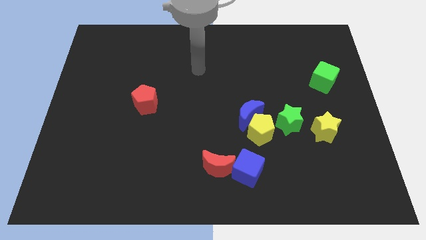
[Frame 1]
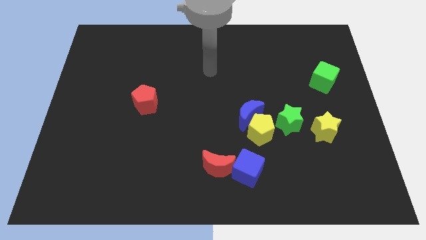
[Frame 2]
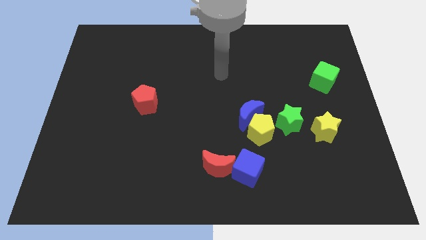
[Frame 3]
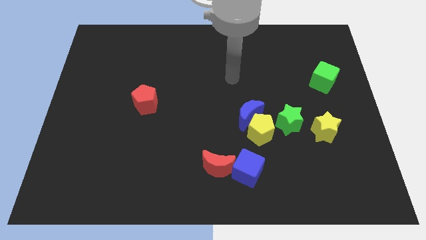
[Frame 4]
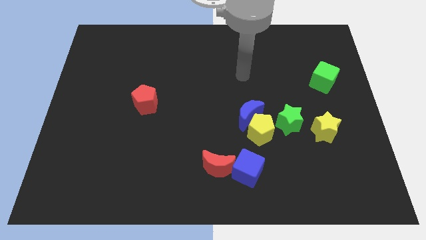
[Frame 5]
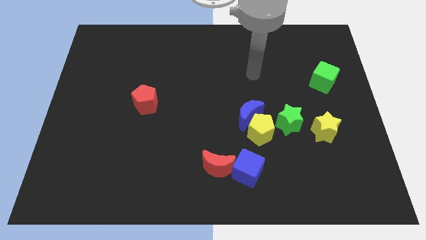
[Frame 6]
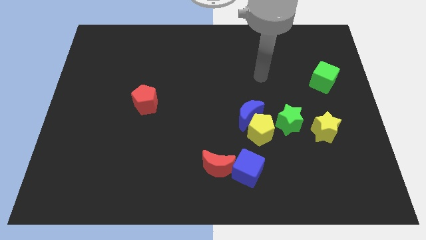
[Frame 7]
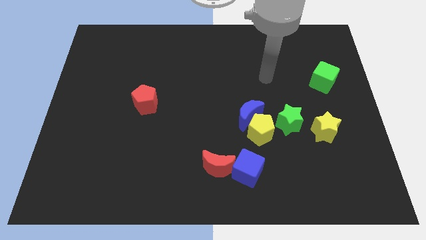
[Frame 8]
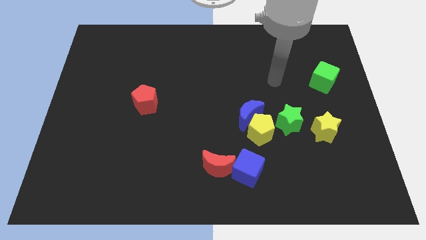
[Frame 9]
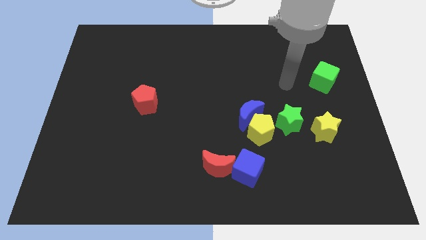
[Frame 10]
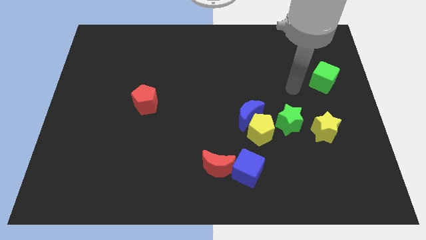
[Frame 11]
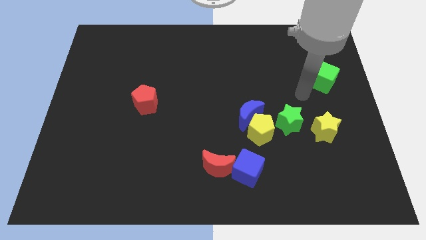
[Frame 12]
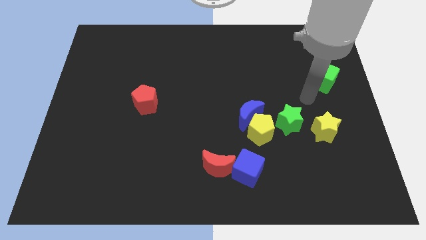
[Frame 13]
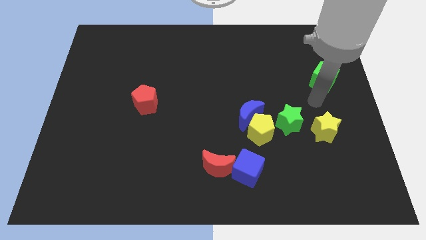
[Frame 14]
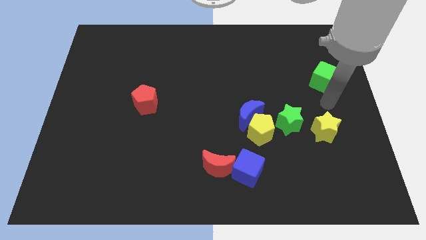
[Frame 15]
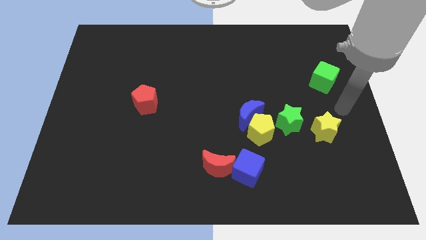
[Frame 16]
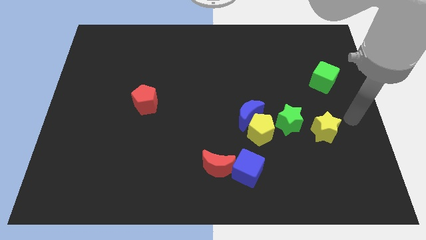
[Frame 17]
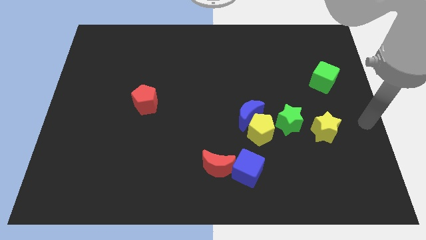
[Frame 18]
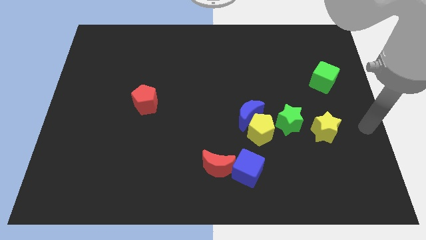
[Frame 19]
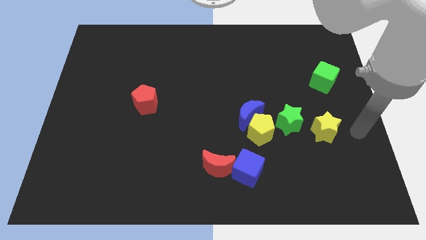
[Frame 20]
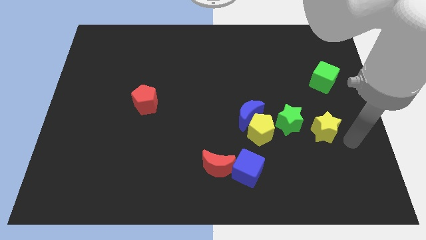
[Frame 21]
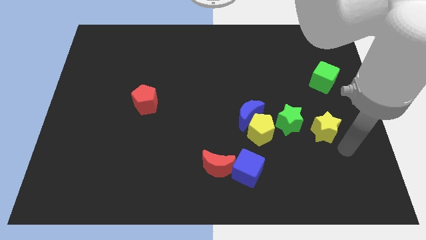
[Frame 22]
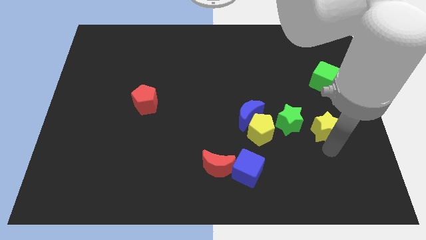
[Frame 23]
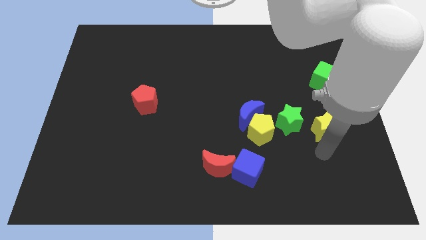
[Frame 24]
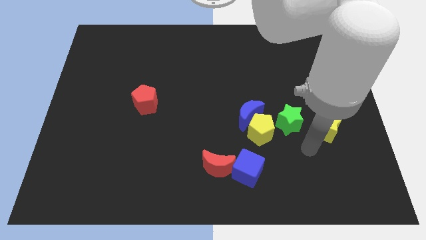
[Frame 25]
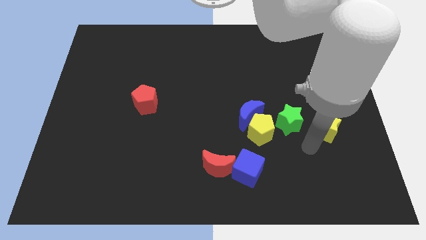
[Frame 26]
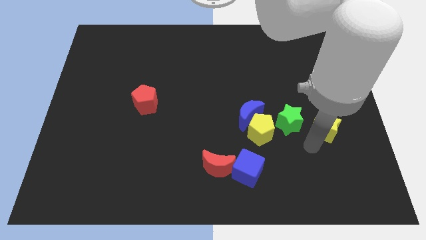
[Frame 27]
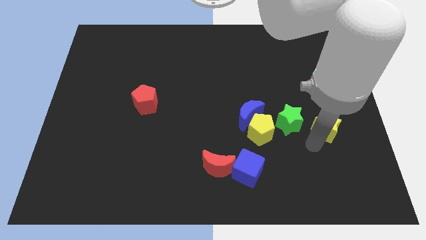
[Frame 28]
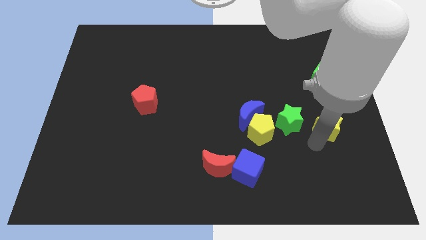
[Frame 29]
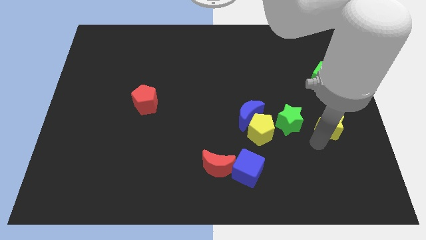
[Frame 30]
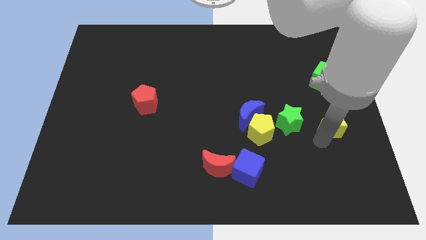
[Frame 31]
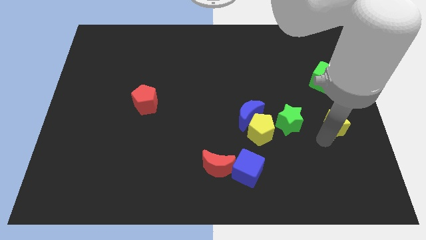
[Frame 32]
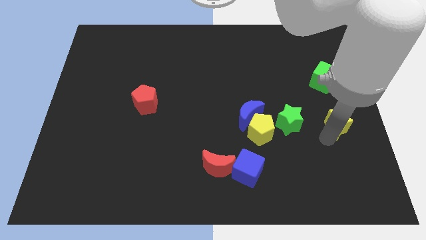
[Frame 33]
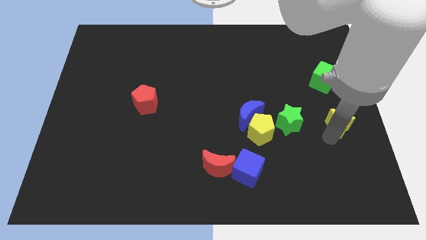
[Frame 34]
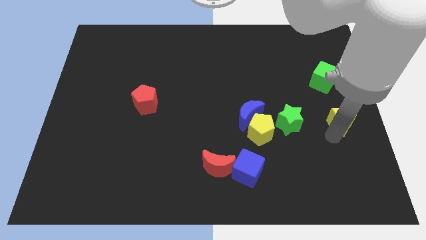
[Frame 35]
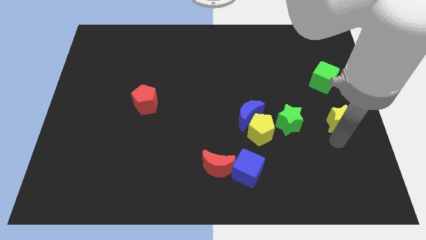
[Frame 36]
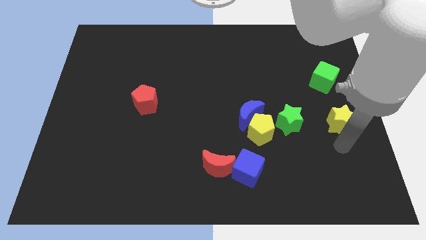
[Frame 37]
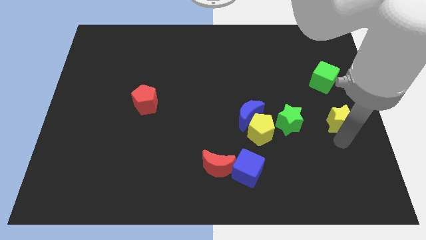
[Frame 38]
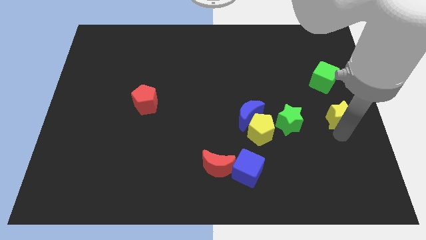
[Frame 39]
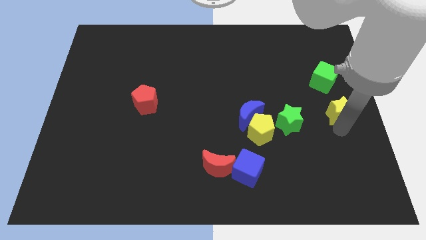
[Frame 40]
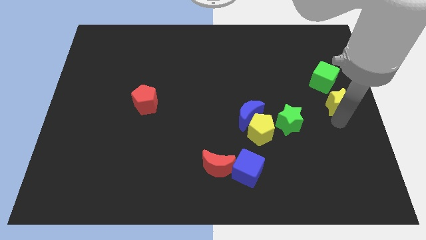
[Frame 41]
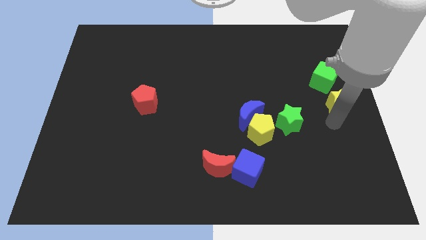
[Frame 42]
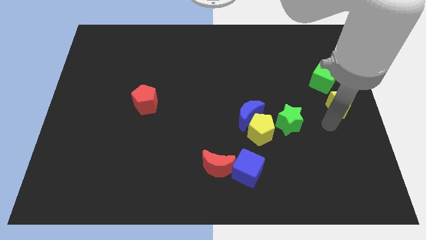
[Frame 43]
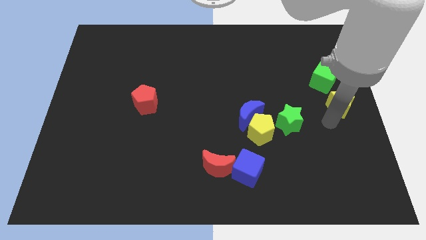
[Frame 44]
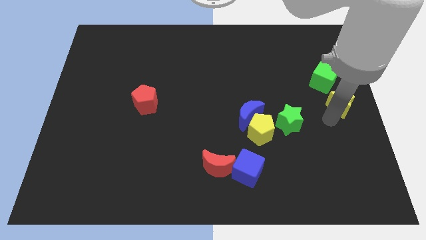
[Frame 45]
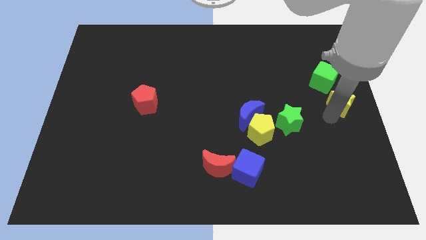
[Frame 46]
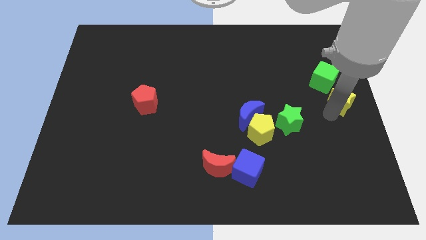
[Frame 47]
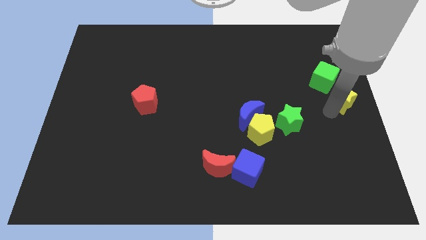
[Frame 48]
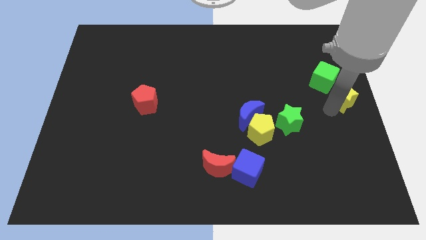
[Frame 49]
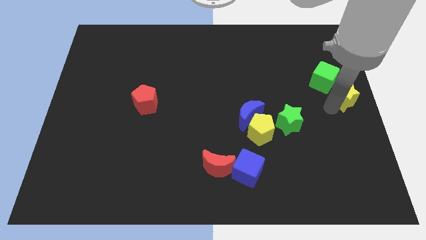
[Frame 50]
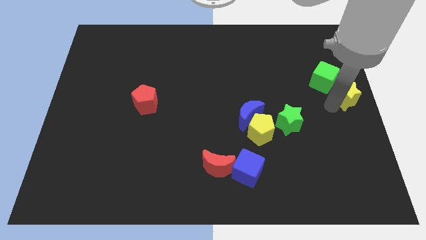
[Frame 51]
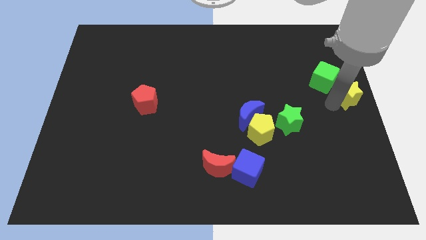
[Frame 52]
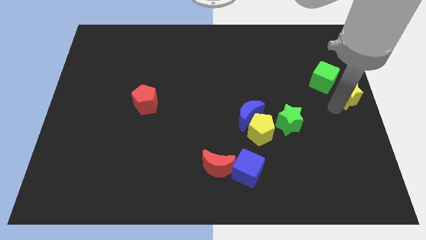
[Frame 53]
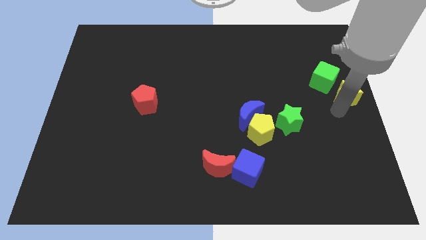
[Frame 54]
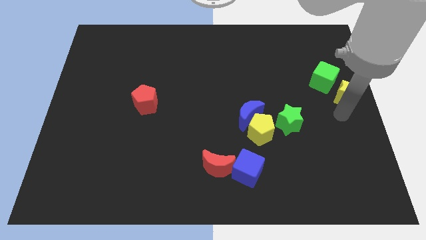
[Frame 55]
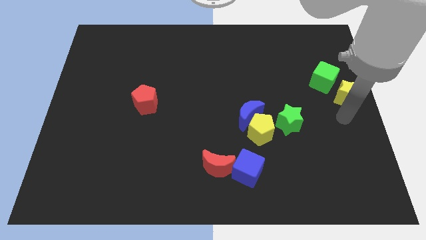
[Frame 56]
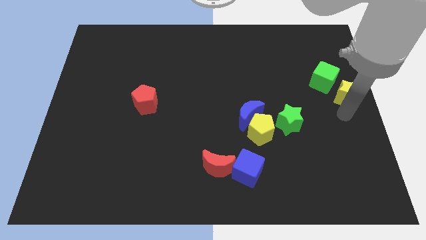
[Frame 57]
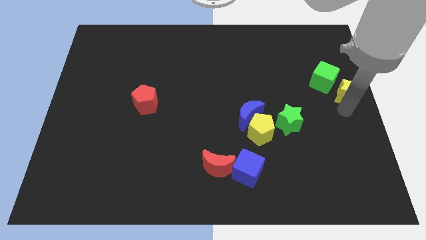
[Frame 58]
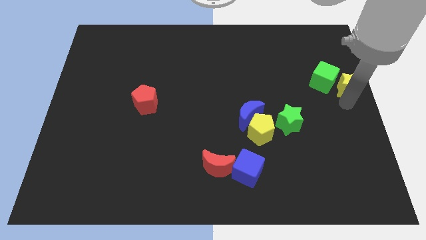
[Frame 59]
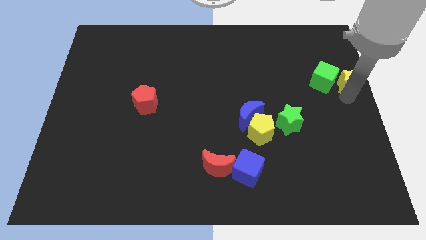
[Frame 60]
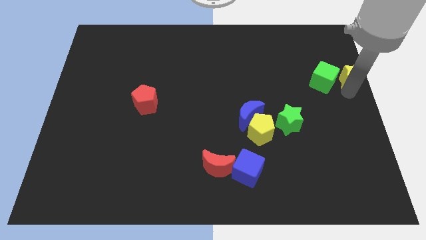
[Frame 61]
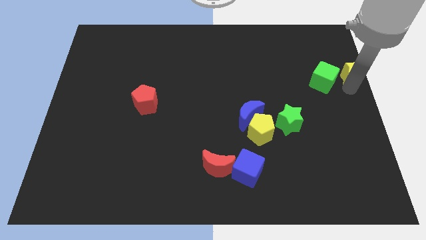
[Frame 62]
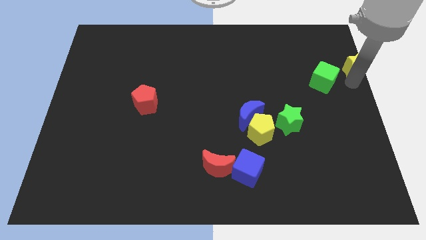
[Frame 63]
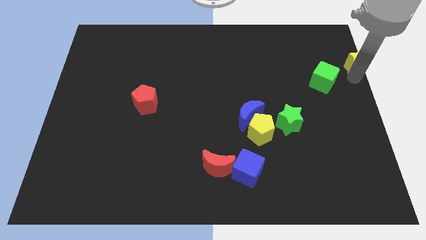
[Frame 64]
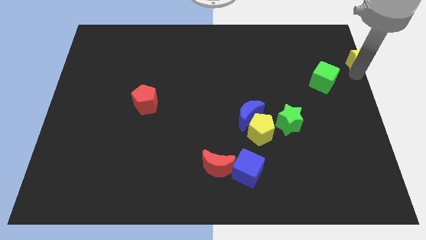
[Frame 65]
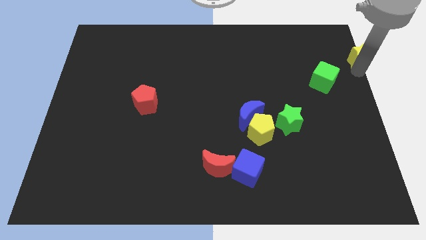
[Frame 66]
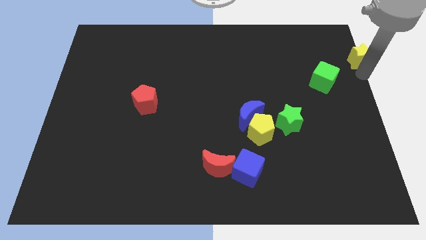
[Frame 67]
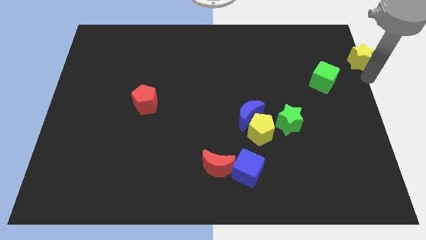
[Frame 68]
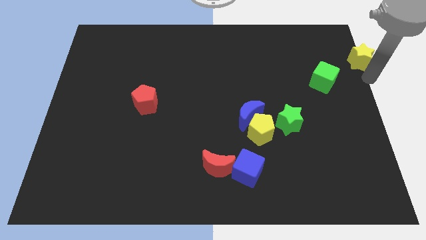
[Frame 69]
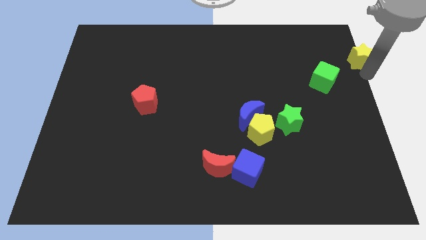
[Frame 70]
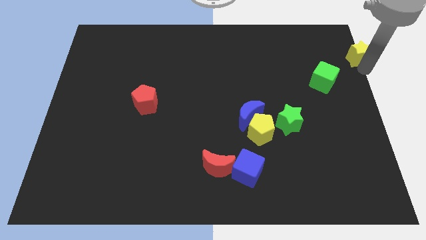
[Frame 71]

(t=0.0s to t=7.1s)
slide the yellow star to the upper right corner
